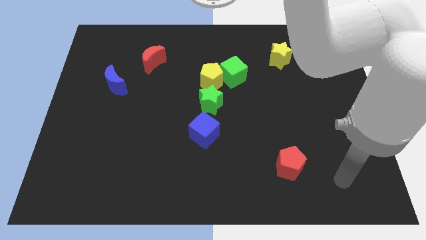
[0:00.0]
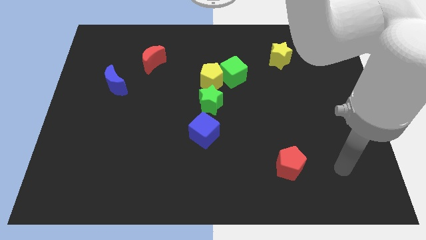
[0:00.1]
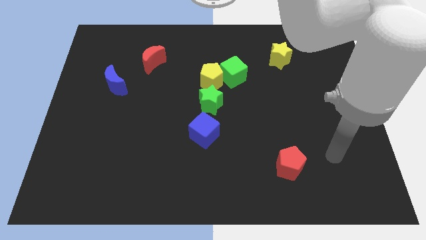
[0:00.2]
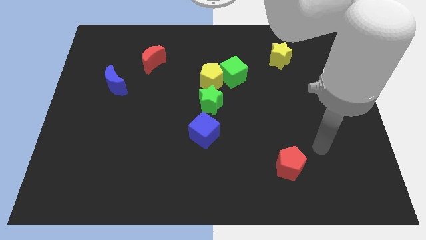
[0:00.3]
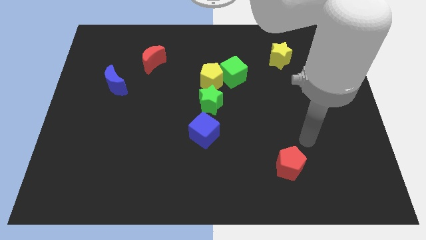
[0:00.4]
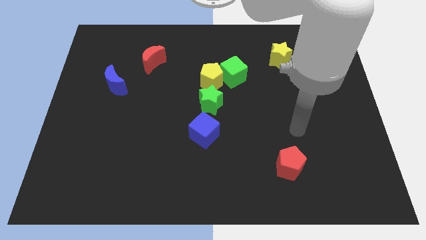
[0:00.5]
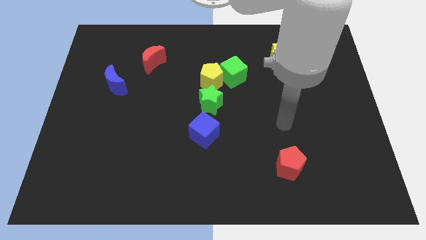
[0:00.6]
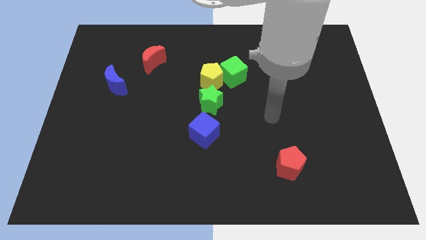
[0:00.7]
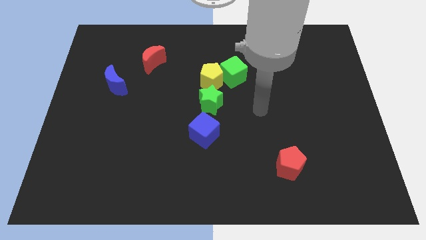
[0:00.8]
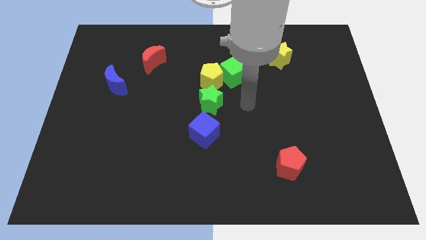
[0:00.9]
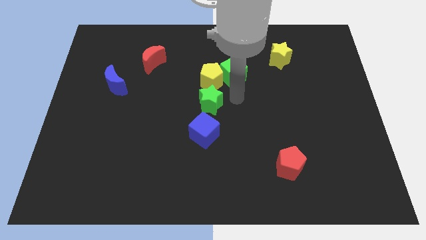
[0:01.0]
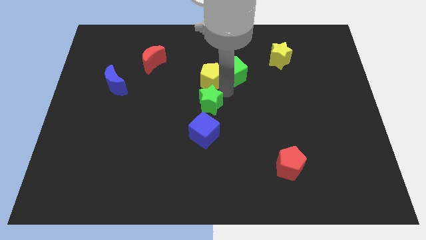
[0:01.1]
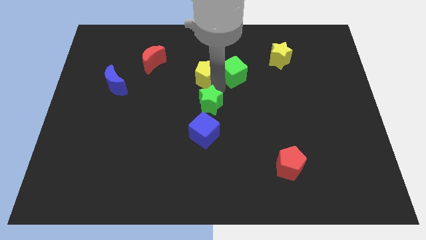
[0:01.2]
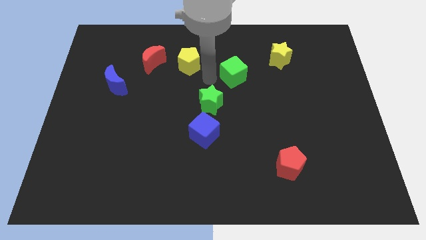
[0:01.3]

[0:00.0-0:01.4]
pull the green cube apart from the yellow pentagon

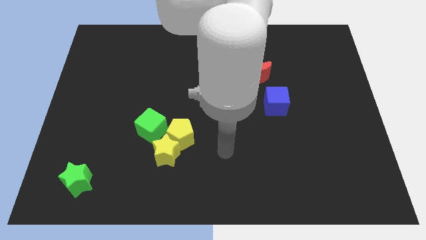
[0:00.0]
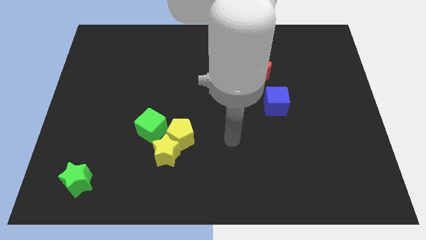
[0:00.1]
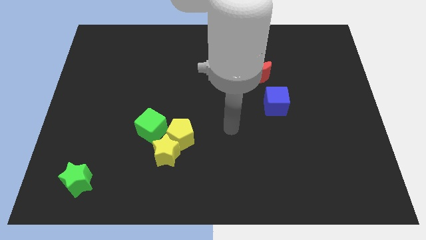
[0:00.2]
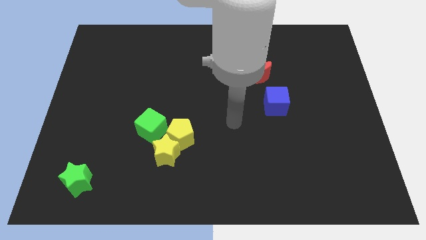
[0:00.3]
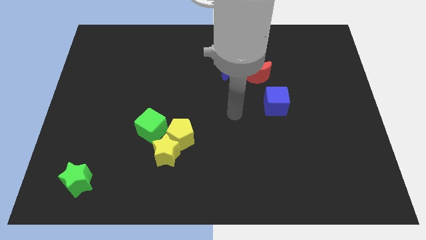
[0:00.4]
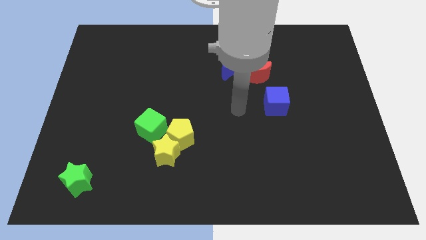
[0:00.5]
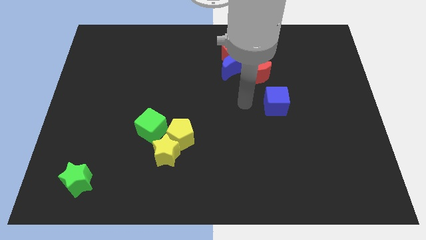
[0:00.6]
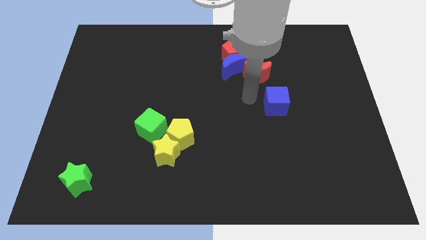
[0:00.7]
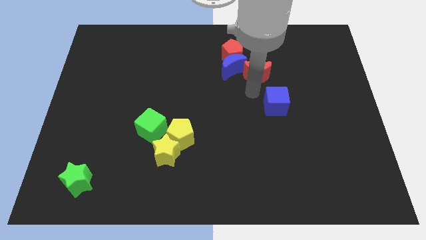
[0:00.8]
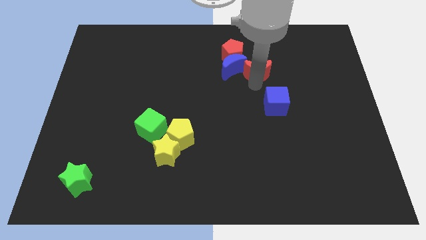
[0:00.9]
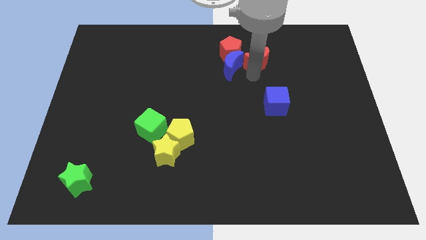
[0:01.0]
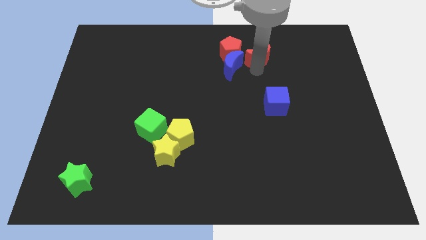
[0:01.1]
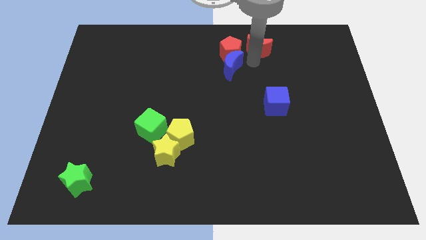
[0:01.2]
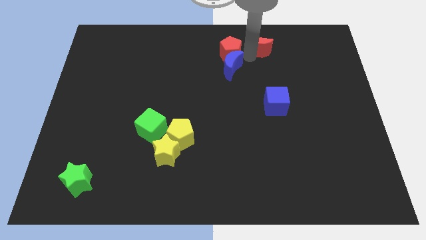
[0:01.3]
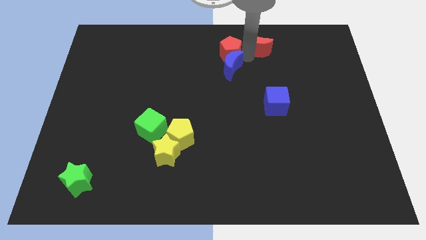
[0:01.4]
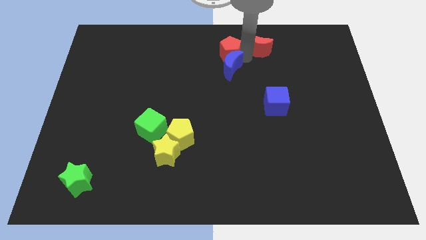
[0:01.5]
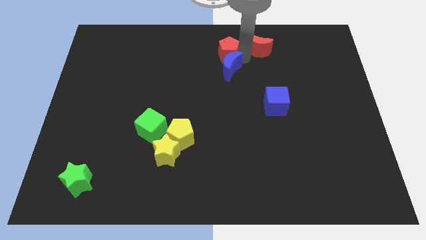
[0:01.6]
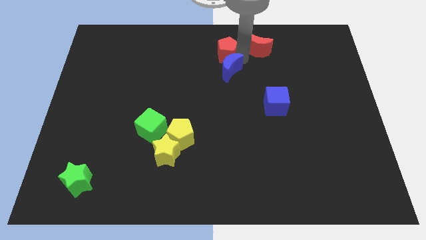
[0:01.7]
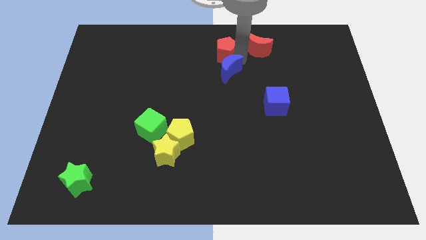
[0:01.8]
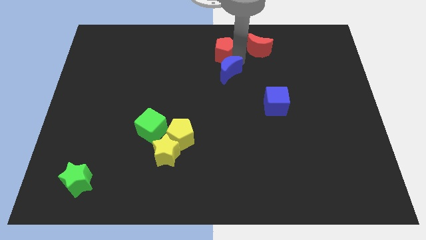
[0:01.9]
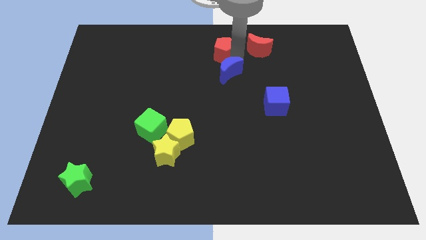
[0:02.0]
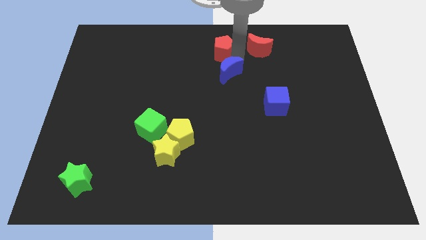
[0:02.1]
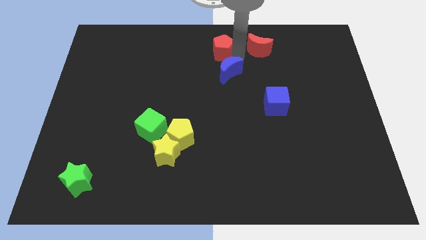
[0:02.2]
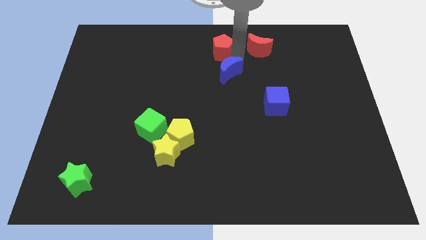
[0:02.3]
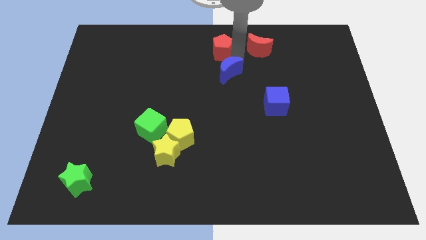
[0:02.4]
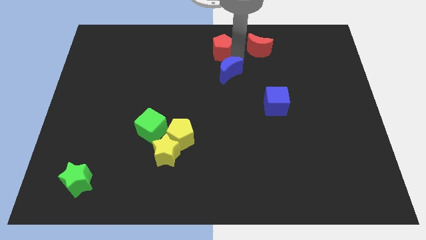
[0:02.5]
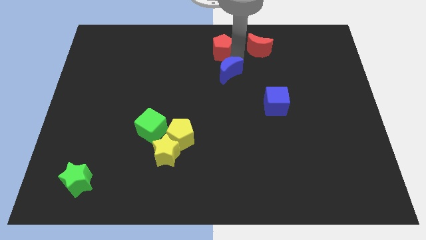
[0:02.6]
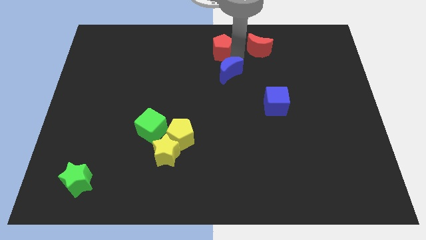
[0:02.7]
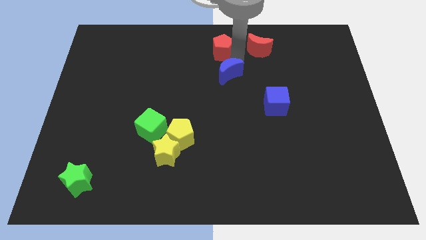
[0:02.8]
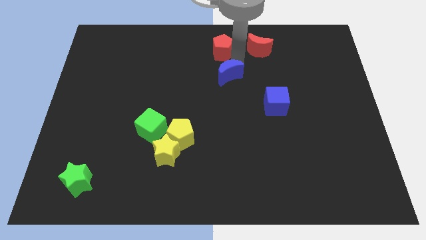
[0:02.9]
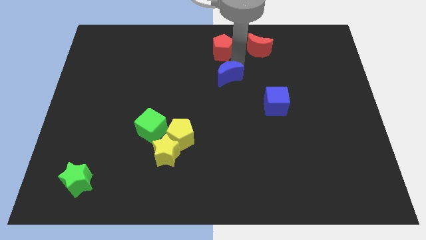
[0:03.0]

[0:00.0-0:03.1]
separate the blue moon from the red pentagon and red moon

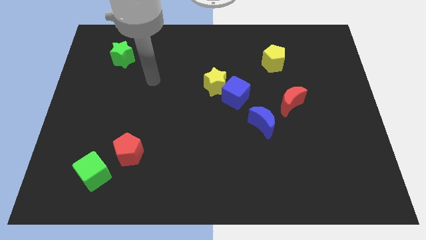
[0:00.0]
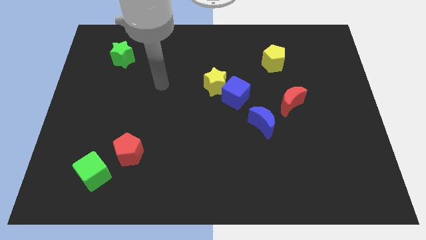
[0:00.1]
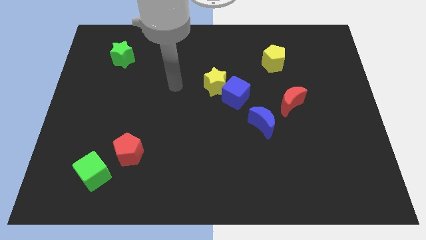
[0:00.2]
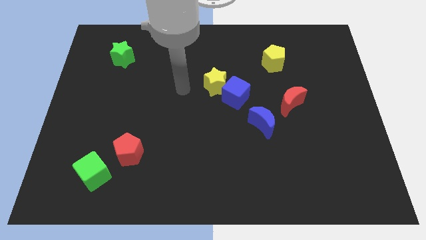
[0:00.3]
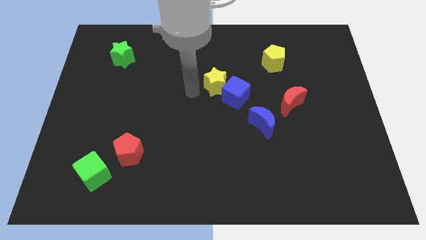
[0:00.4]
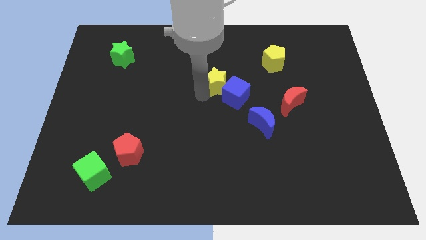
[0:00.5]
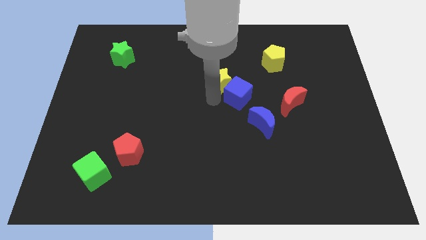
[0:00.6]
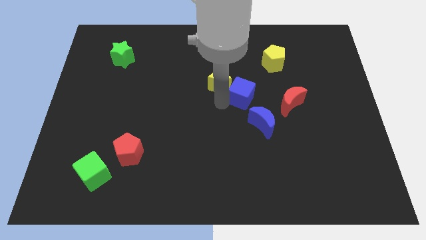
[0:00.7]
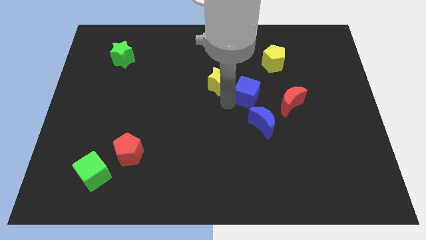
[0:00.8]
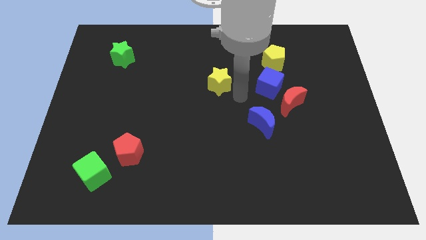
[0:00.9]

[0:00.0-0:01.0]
pull the yellow star apart from the blue cube

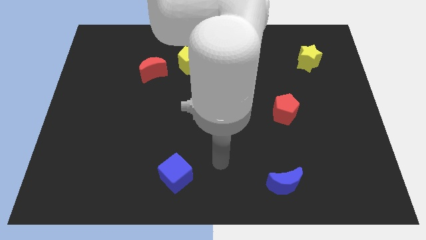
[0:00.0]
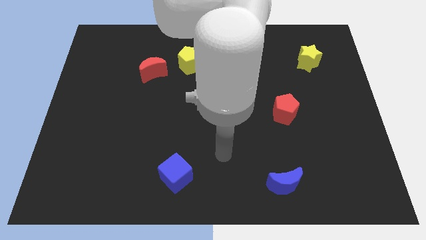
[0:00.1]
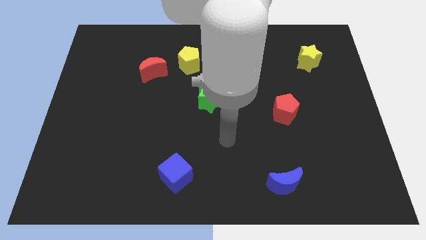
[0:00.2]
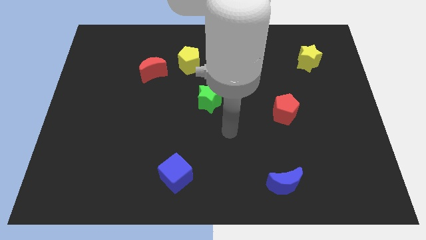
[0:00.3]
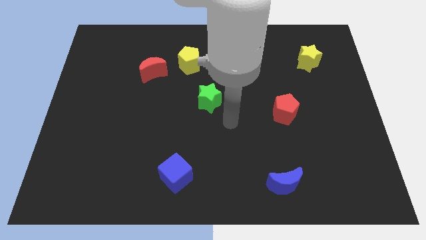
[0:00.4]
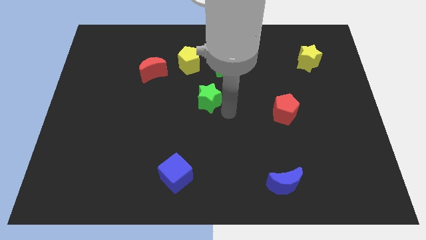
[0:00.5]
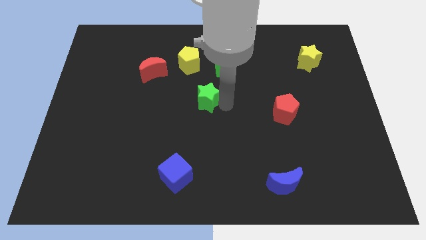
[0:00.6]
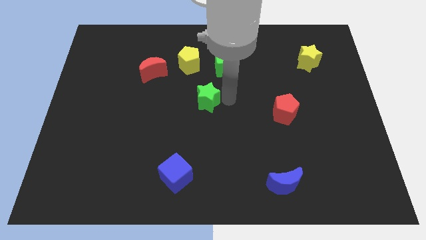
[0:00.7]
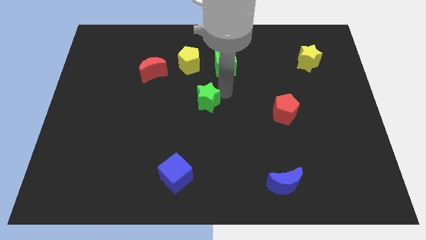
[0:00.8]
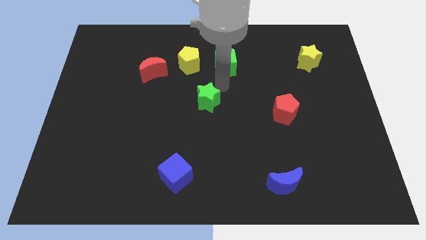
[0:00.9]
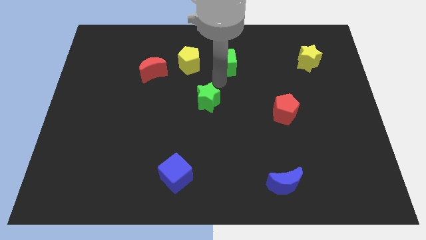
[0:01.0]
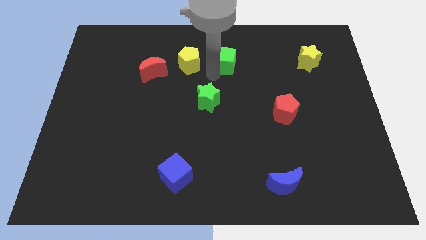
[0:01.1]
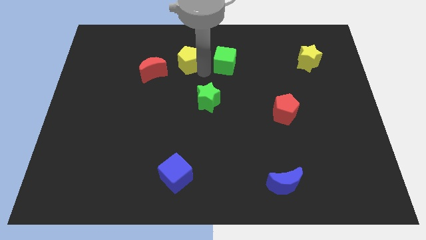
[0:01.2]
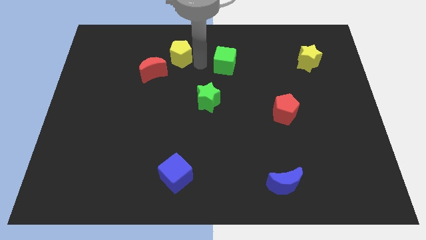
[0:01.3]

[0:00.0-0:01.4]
move the green cube away from the yellow pentagon

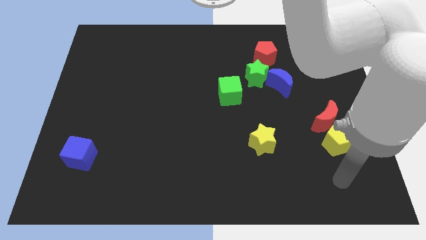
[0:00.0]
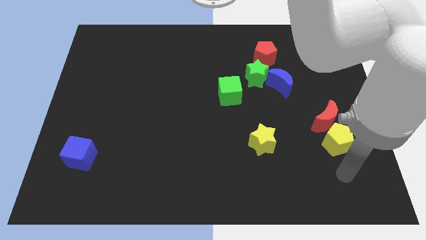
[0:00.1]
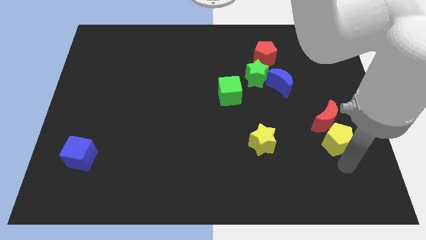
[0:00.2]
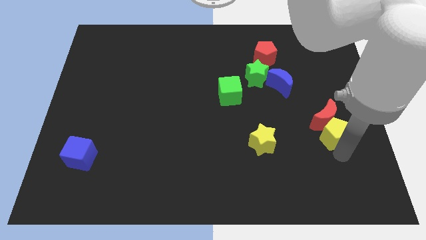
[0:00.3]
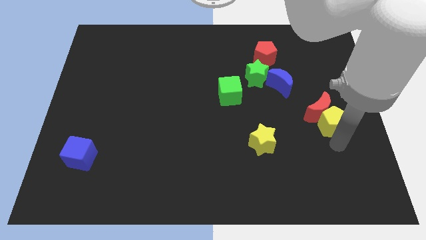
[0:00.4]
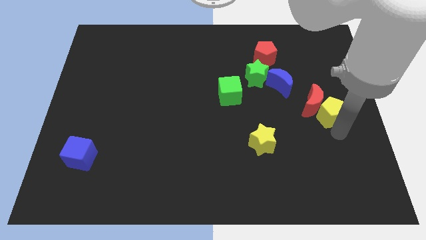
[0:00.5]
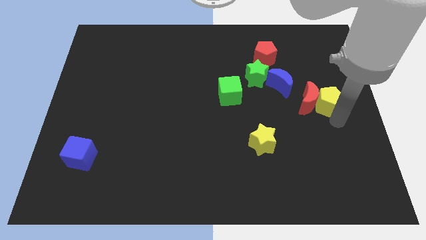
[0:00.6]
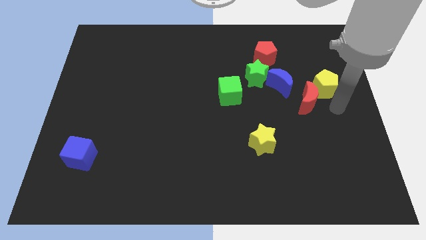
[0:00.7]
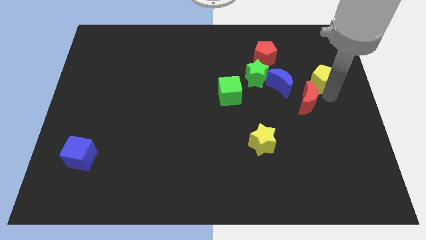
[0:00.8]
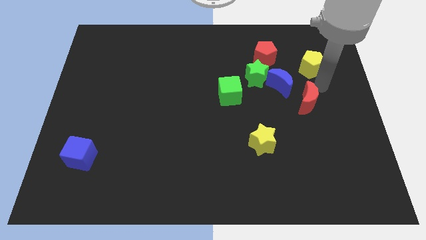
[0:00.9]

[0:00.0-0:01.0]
move the red moon away from the yellow pentagon

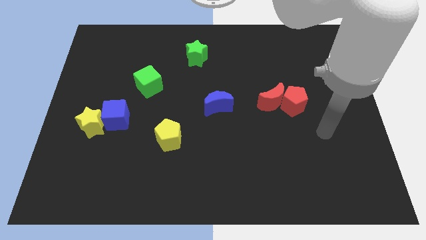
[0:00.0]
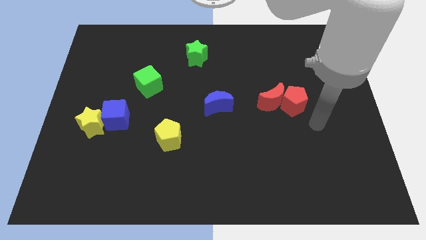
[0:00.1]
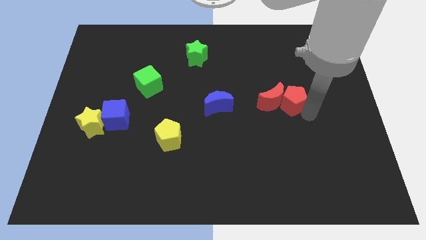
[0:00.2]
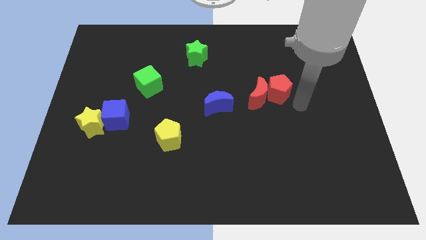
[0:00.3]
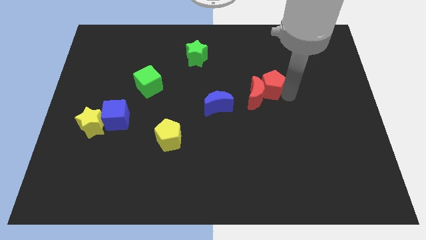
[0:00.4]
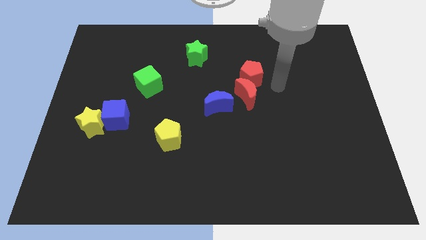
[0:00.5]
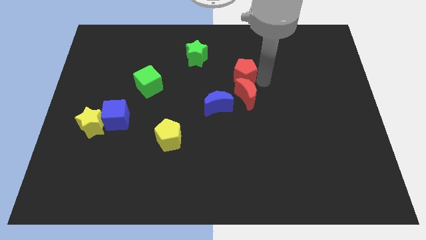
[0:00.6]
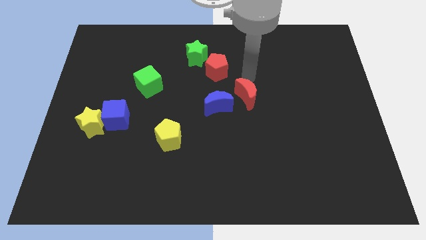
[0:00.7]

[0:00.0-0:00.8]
separate the red moon from the red pentagon

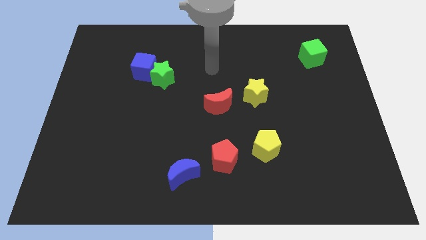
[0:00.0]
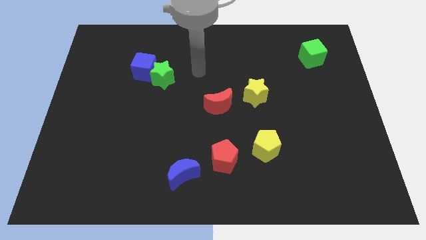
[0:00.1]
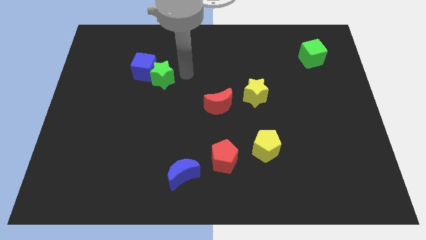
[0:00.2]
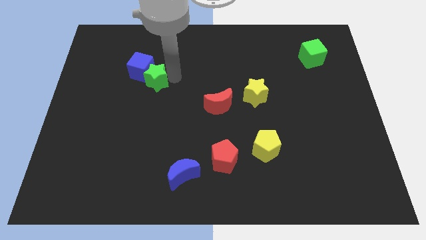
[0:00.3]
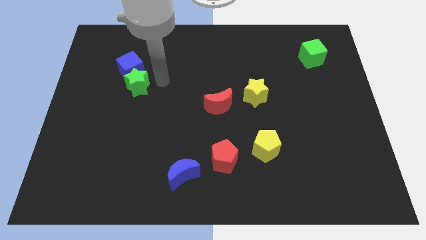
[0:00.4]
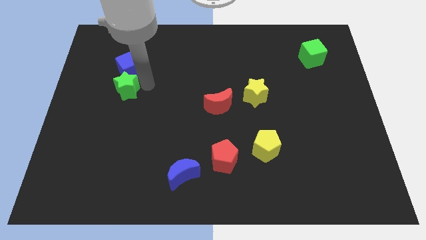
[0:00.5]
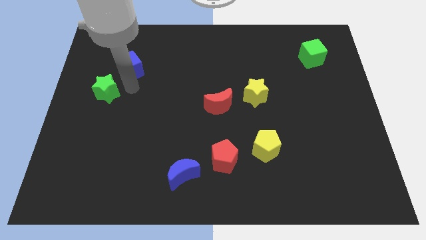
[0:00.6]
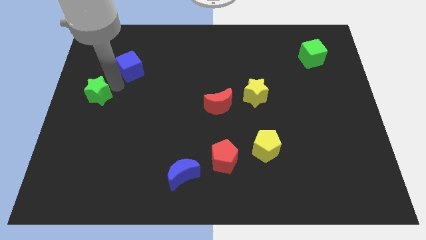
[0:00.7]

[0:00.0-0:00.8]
pull the blue cube apart from the green star

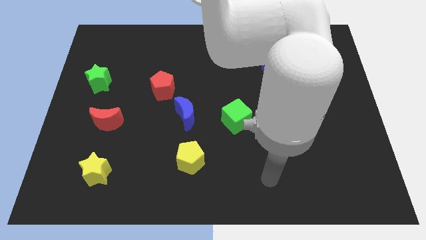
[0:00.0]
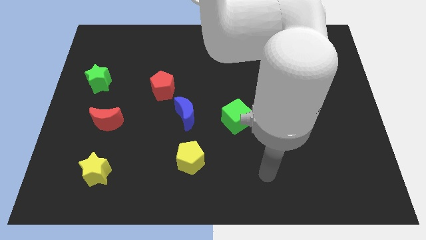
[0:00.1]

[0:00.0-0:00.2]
pull the red pentagon apart from the blue moon
